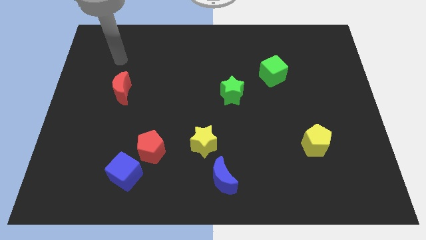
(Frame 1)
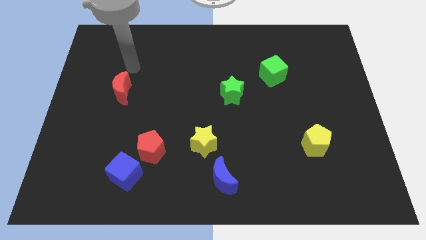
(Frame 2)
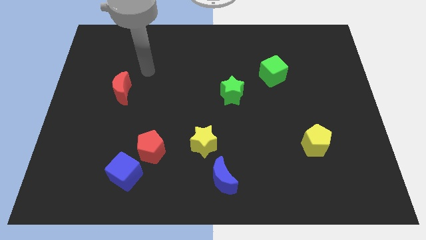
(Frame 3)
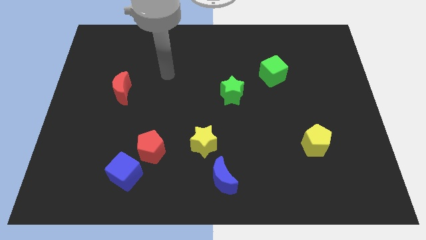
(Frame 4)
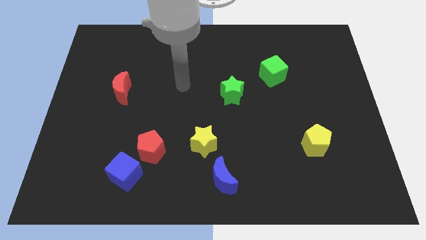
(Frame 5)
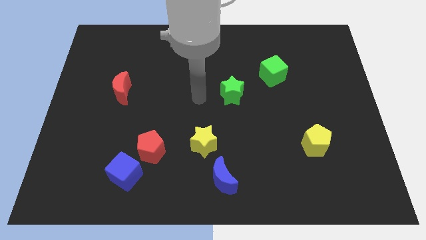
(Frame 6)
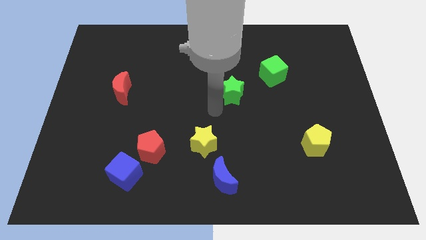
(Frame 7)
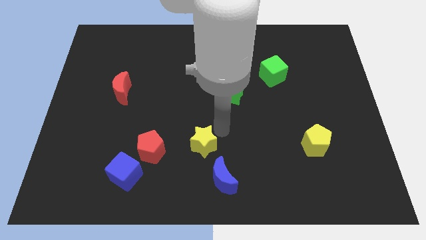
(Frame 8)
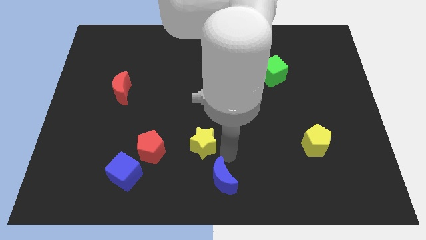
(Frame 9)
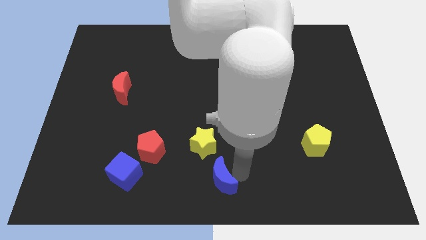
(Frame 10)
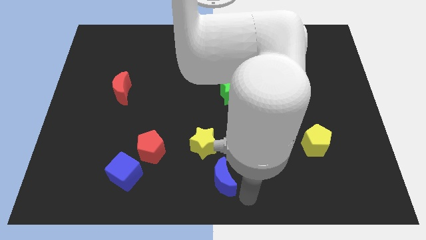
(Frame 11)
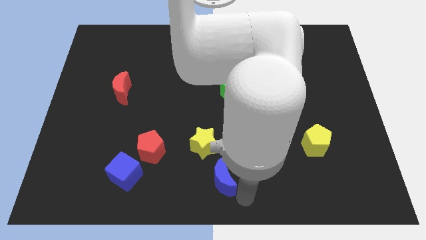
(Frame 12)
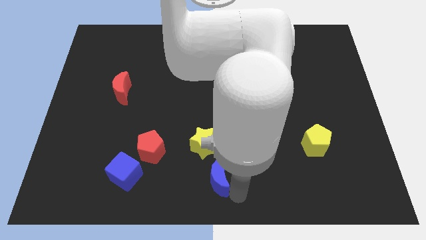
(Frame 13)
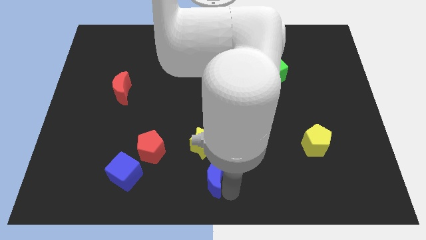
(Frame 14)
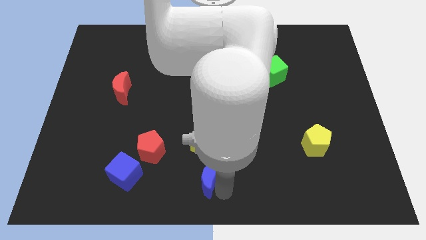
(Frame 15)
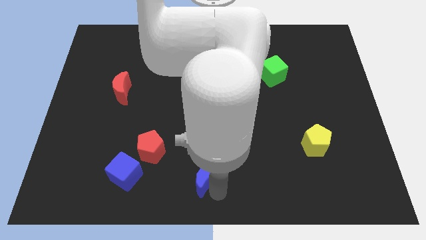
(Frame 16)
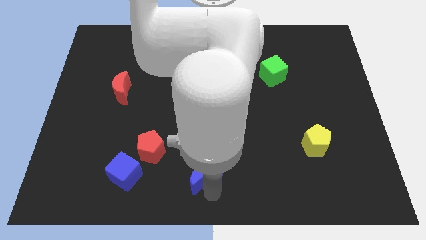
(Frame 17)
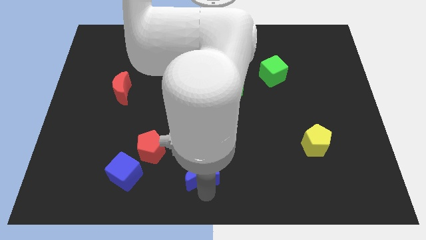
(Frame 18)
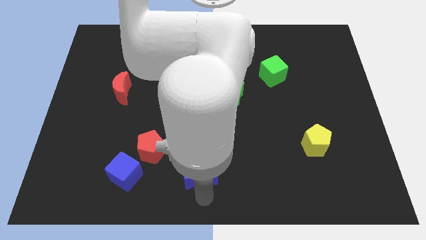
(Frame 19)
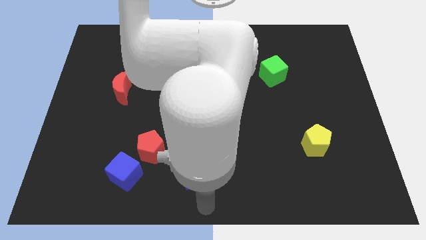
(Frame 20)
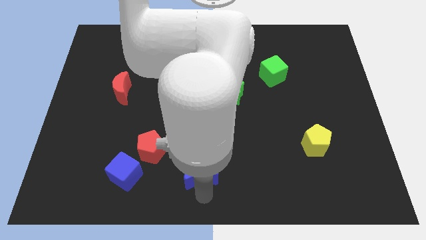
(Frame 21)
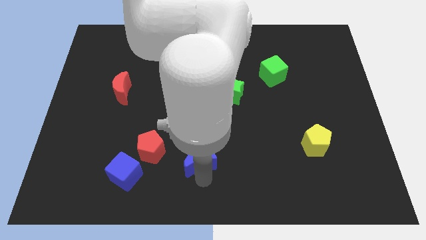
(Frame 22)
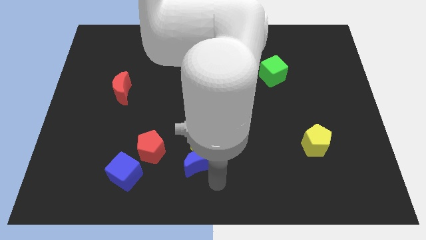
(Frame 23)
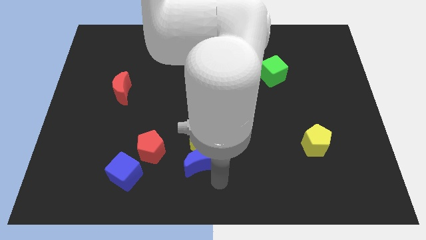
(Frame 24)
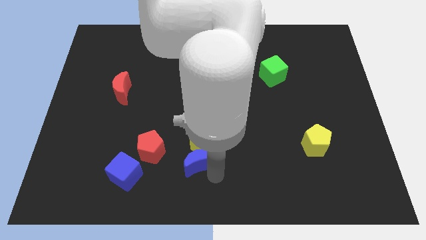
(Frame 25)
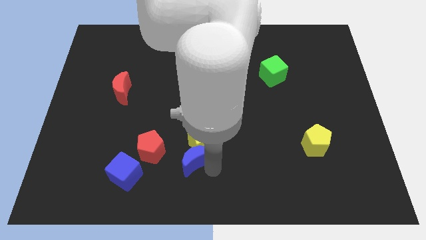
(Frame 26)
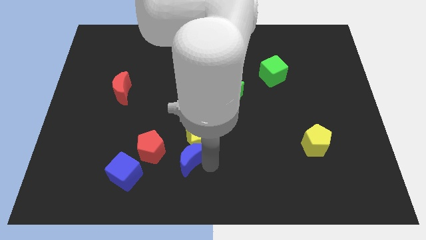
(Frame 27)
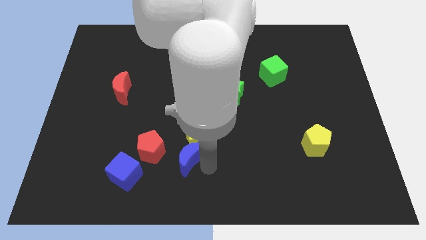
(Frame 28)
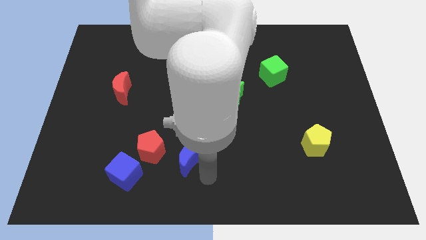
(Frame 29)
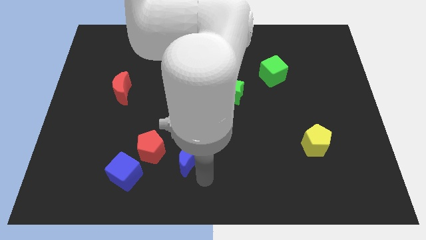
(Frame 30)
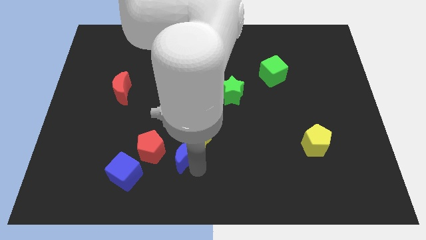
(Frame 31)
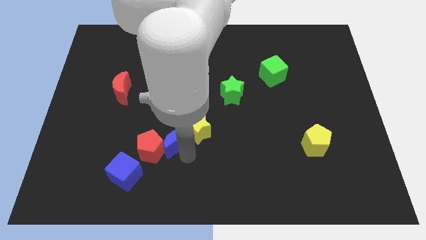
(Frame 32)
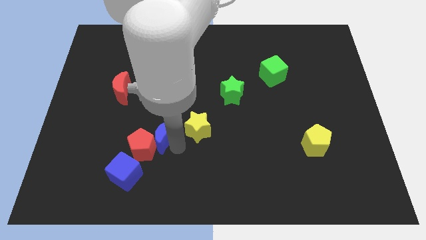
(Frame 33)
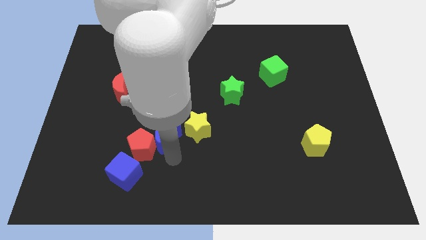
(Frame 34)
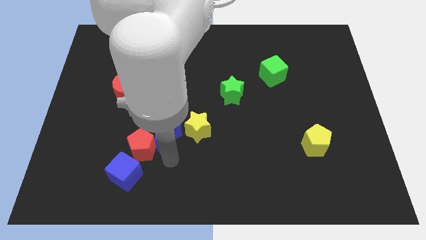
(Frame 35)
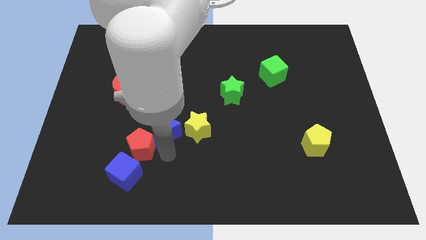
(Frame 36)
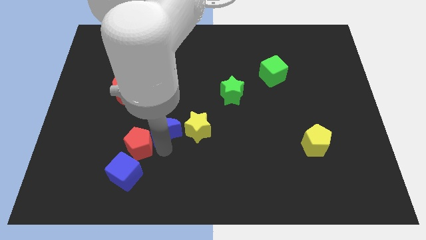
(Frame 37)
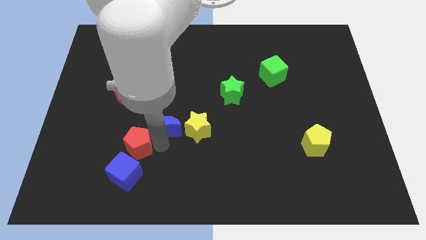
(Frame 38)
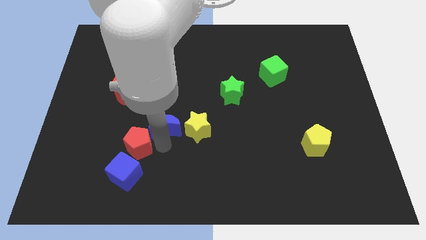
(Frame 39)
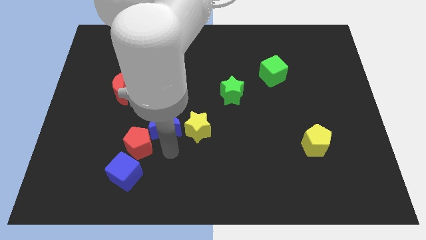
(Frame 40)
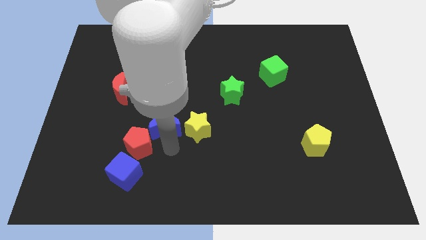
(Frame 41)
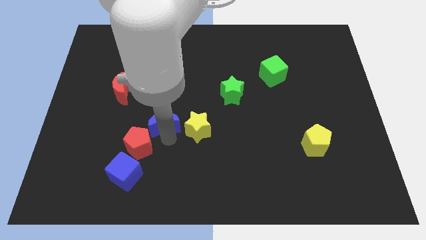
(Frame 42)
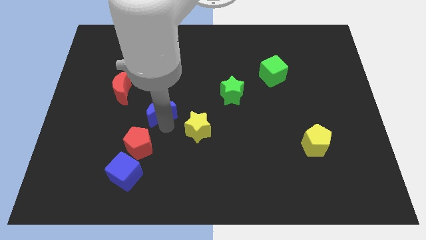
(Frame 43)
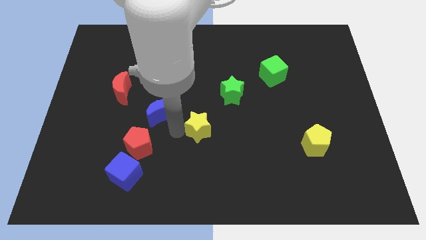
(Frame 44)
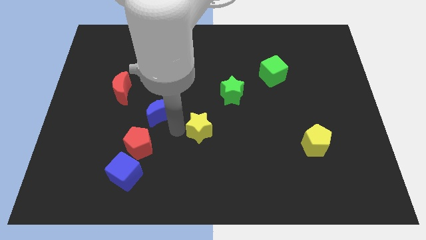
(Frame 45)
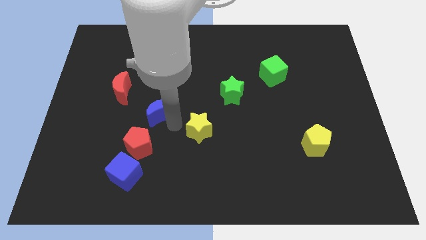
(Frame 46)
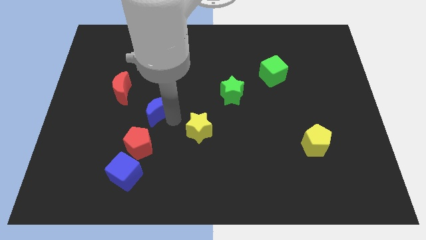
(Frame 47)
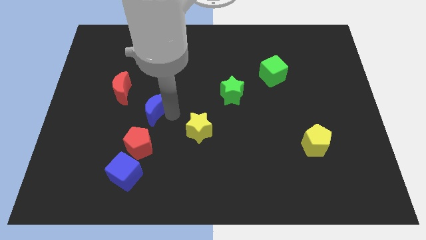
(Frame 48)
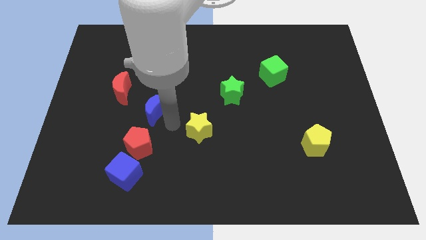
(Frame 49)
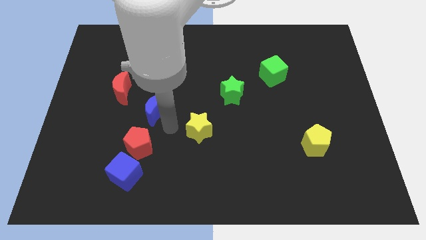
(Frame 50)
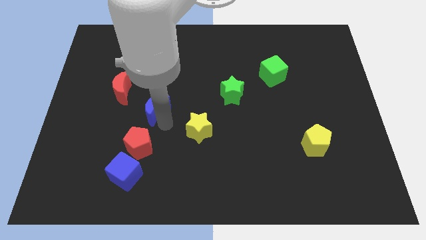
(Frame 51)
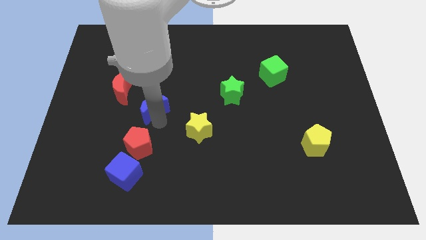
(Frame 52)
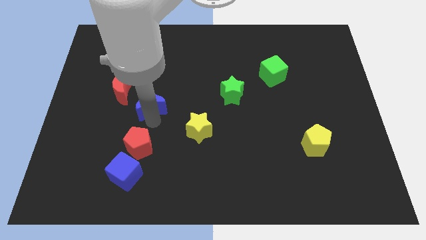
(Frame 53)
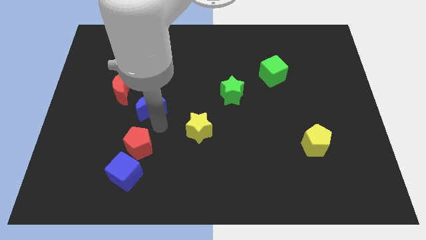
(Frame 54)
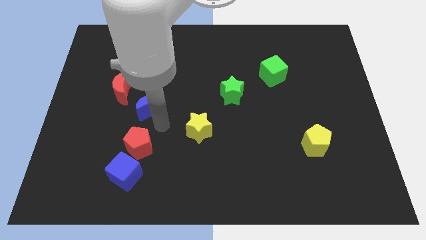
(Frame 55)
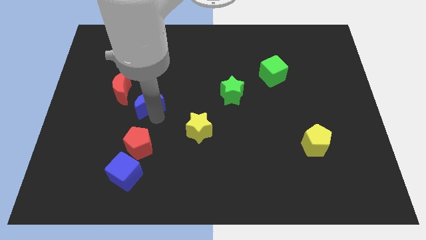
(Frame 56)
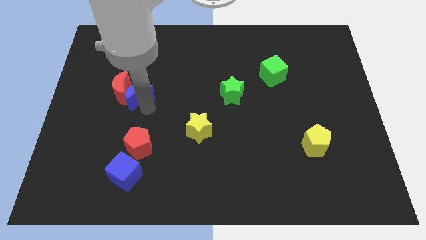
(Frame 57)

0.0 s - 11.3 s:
put the blue moon to the top right side of the red moon

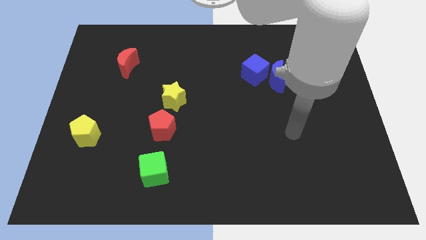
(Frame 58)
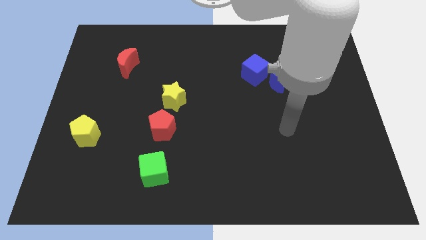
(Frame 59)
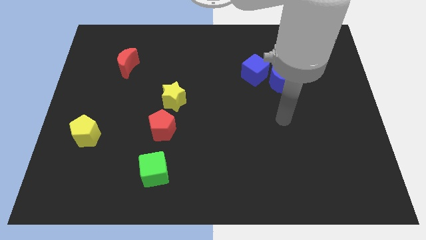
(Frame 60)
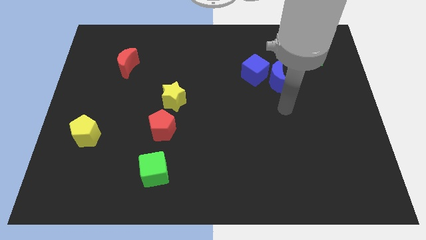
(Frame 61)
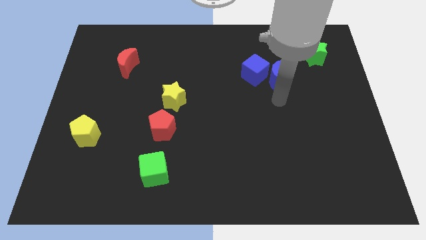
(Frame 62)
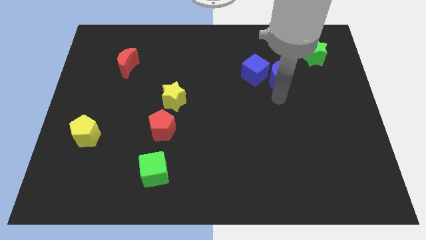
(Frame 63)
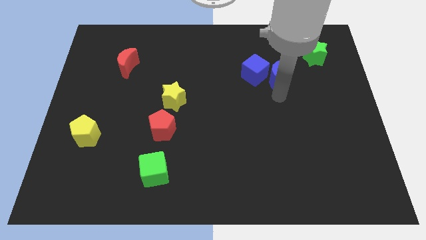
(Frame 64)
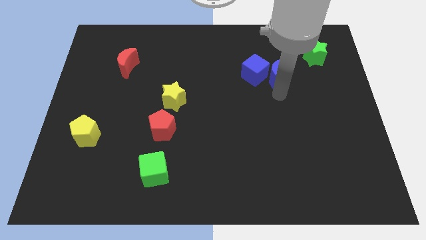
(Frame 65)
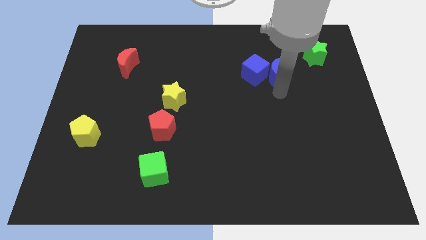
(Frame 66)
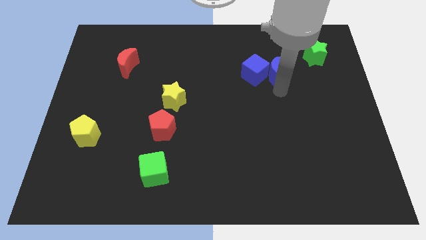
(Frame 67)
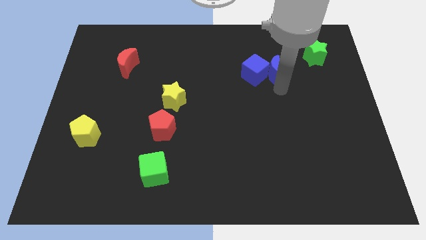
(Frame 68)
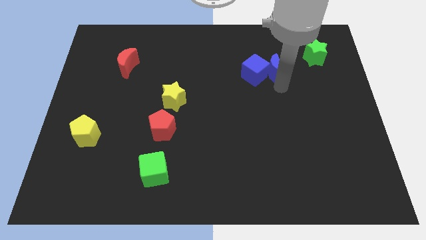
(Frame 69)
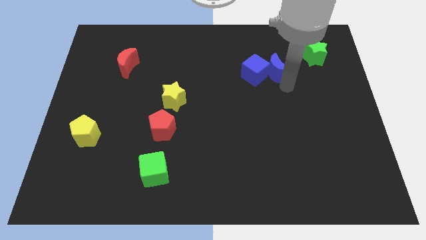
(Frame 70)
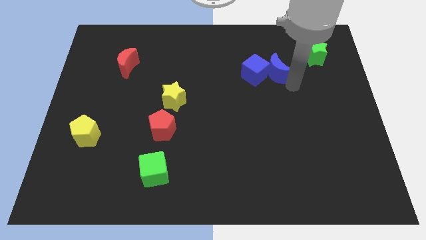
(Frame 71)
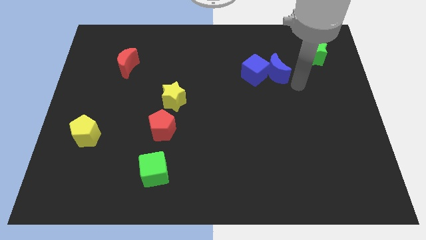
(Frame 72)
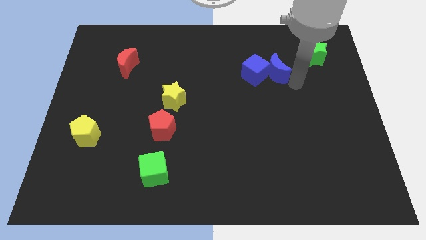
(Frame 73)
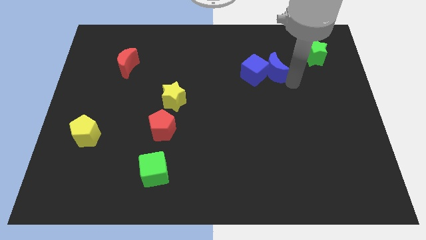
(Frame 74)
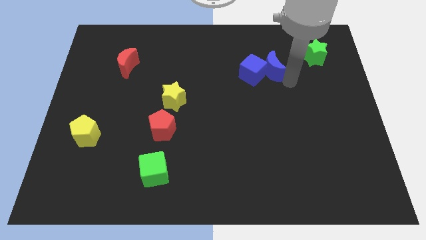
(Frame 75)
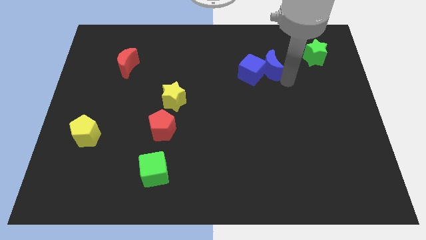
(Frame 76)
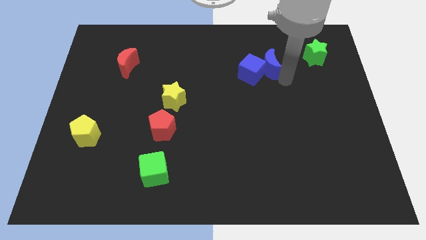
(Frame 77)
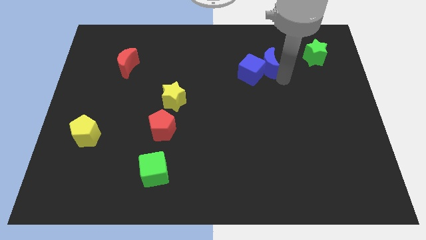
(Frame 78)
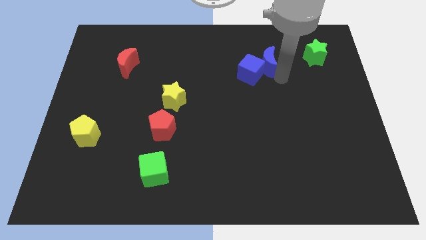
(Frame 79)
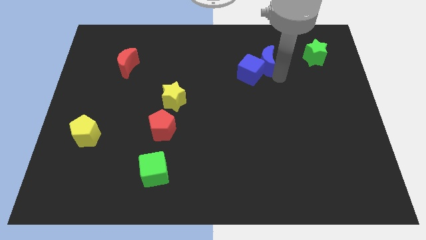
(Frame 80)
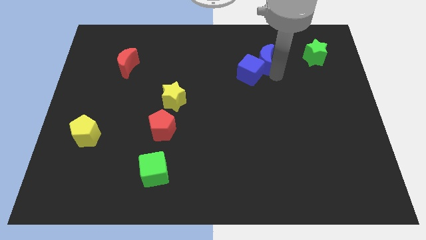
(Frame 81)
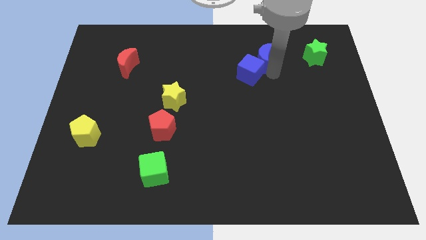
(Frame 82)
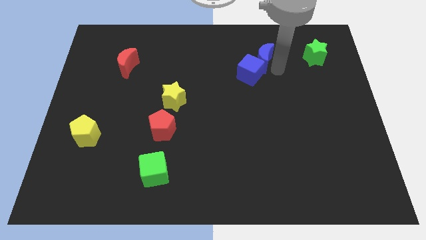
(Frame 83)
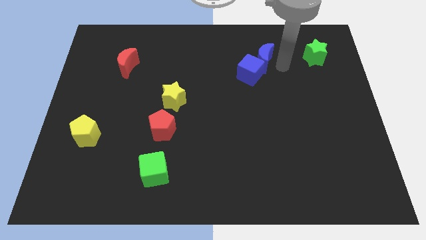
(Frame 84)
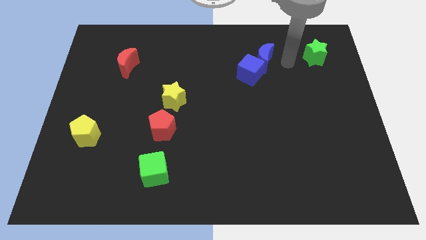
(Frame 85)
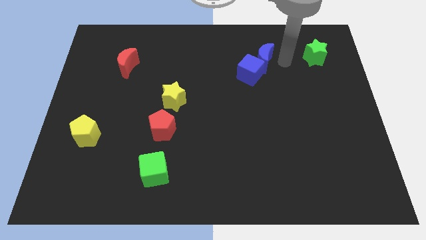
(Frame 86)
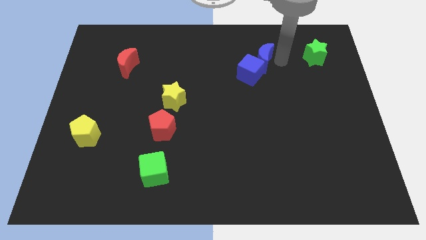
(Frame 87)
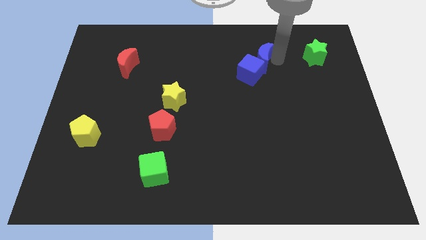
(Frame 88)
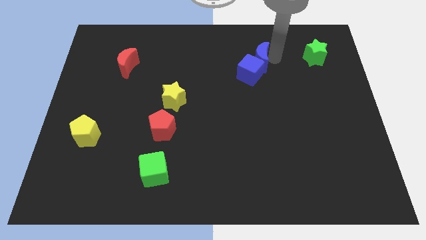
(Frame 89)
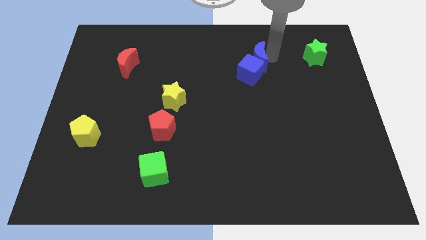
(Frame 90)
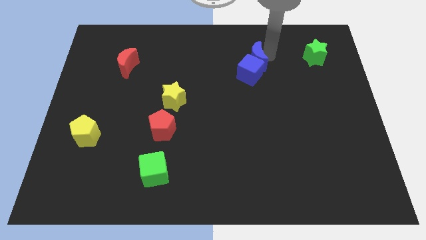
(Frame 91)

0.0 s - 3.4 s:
push the blue moon to the top left side of the blue cube
